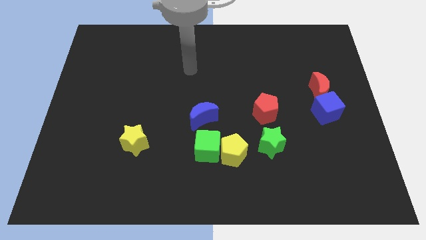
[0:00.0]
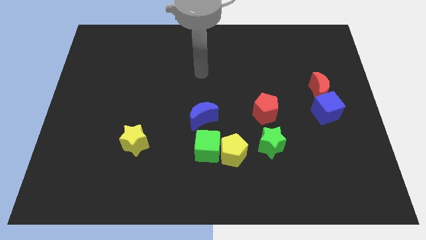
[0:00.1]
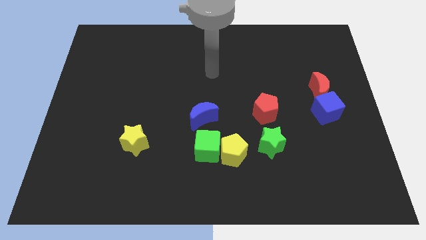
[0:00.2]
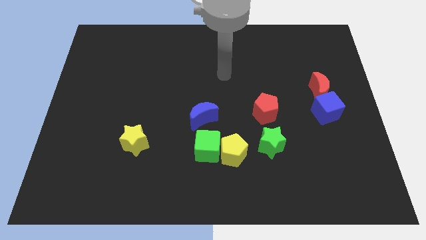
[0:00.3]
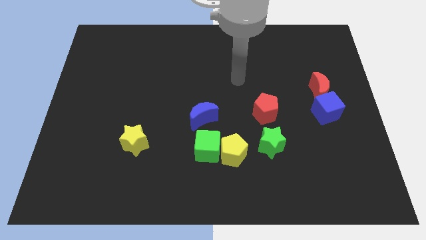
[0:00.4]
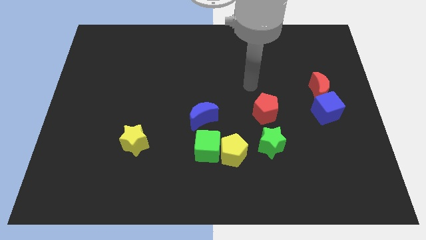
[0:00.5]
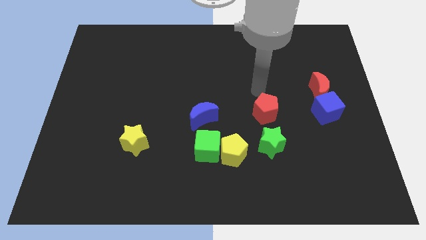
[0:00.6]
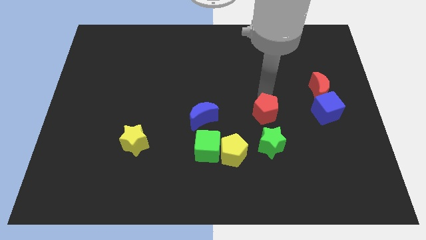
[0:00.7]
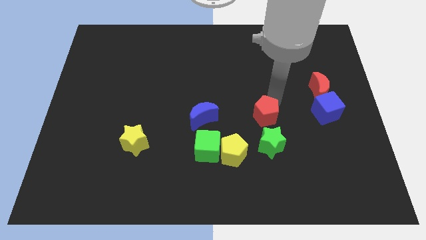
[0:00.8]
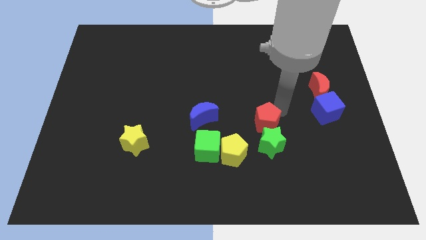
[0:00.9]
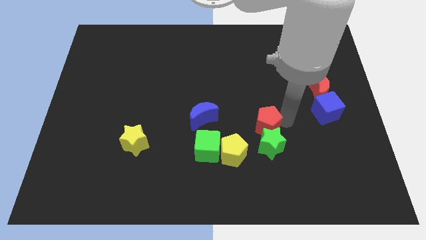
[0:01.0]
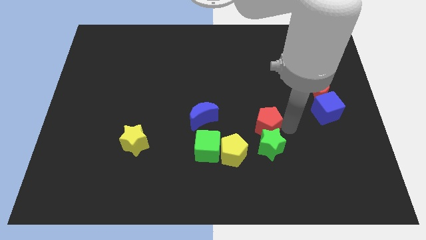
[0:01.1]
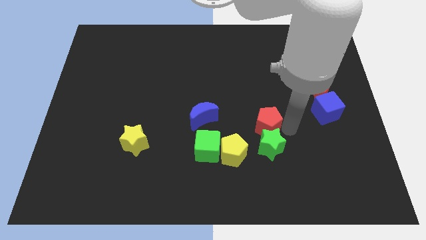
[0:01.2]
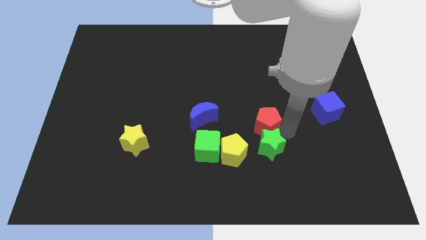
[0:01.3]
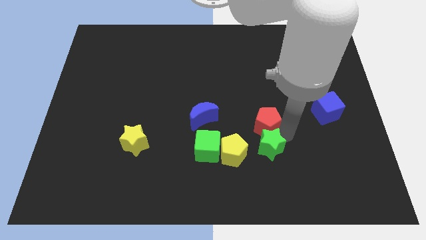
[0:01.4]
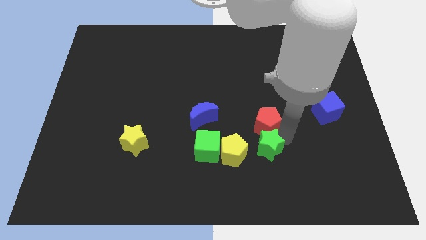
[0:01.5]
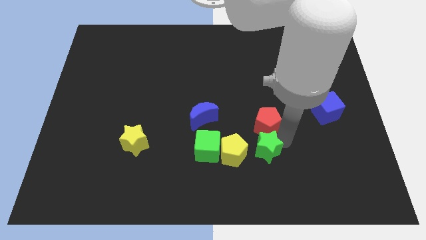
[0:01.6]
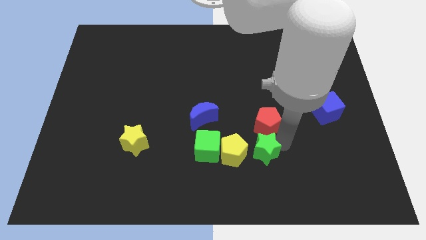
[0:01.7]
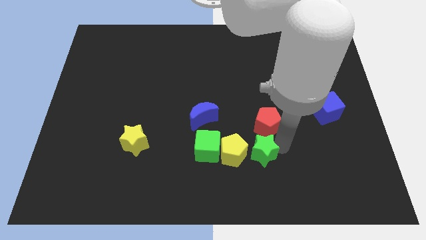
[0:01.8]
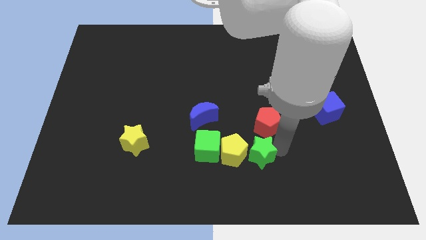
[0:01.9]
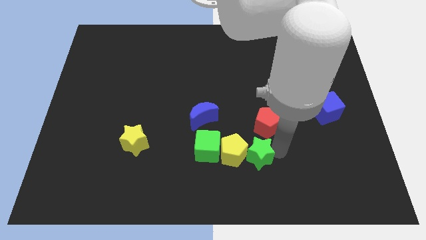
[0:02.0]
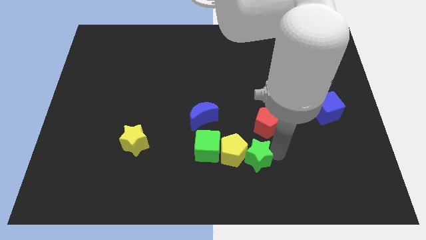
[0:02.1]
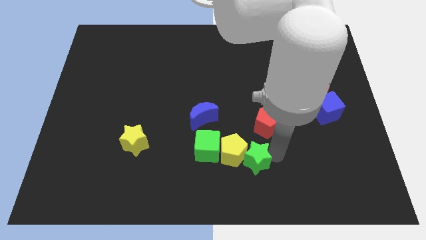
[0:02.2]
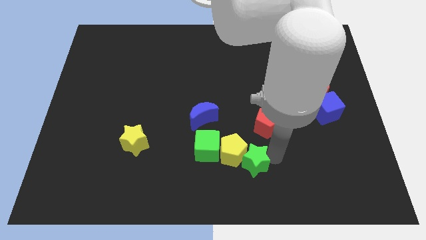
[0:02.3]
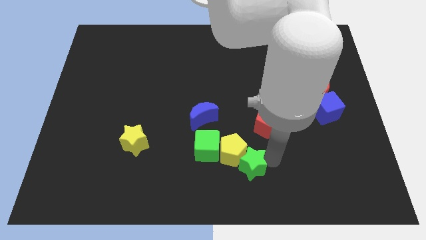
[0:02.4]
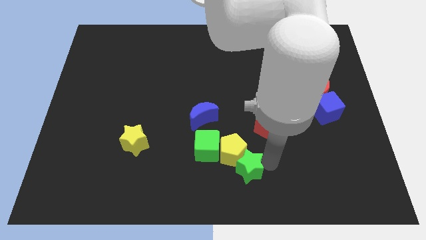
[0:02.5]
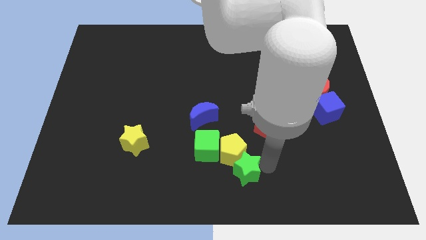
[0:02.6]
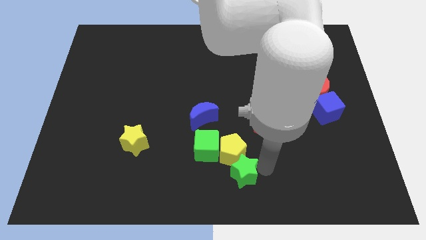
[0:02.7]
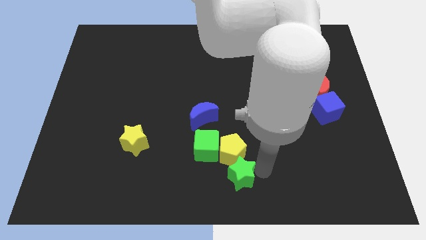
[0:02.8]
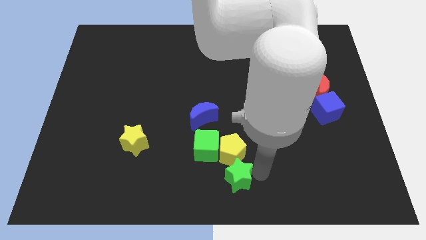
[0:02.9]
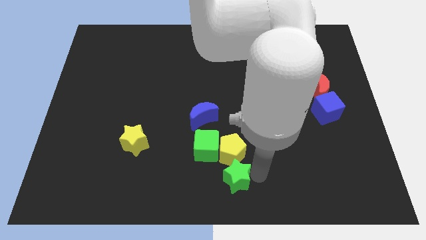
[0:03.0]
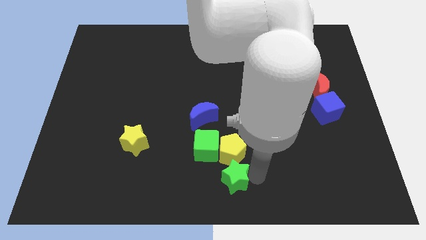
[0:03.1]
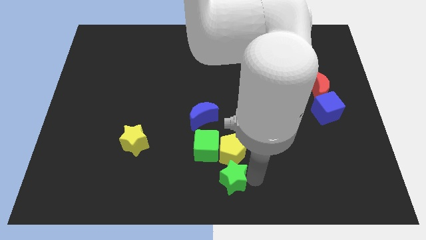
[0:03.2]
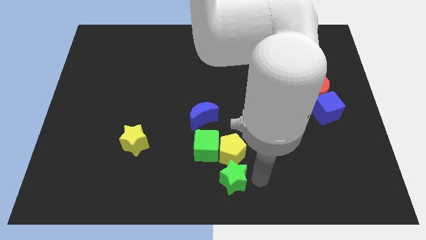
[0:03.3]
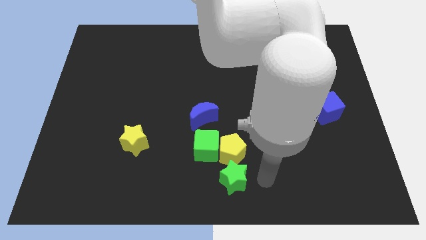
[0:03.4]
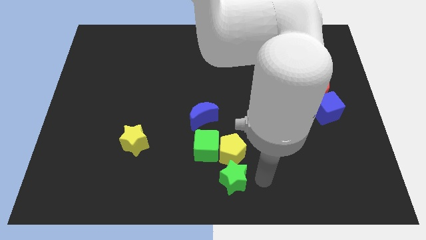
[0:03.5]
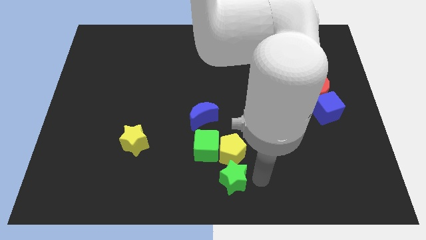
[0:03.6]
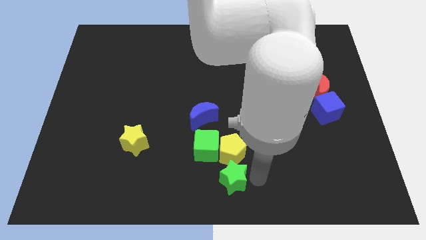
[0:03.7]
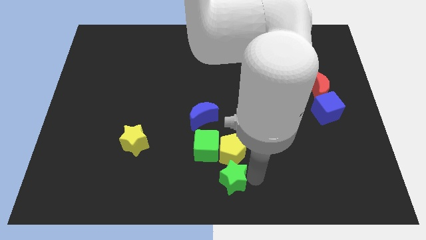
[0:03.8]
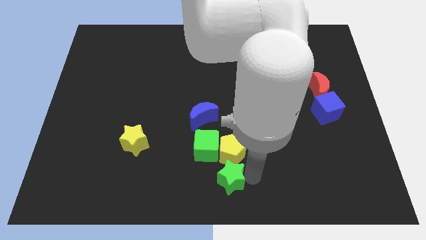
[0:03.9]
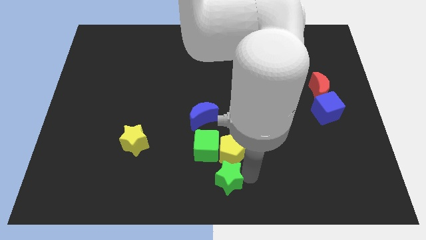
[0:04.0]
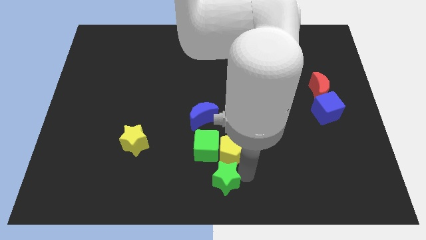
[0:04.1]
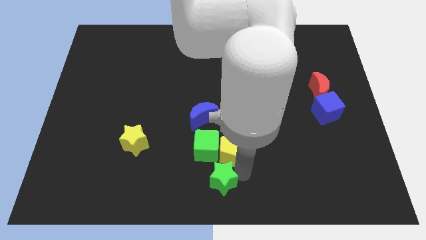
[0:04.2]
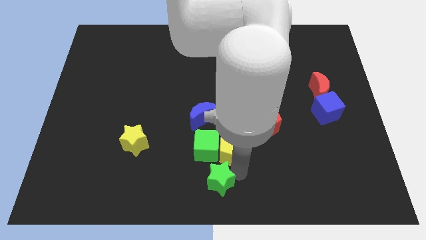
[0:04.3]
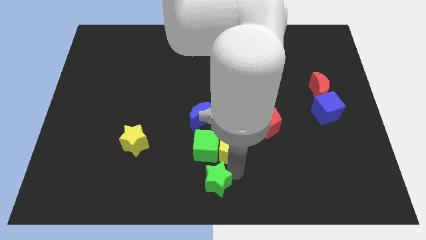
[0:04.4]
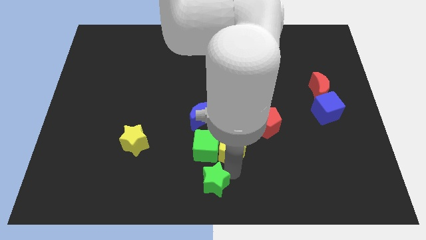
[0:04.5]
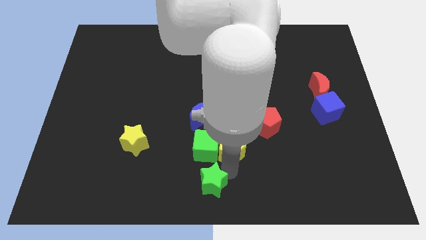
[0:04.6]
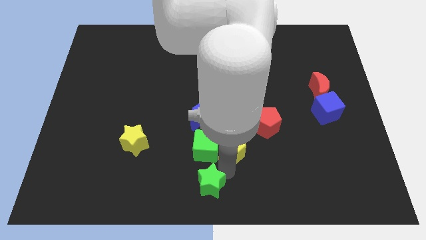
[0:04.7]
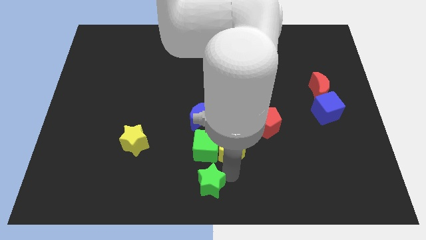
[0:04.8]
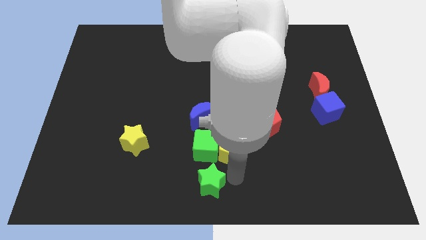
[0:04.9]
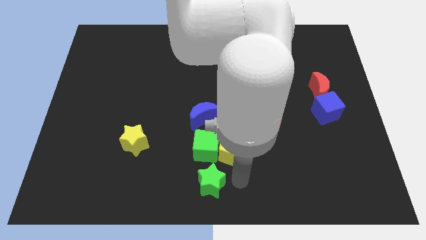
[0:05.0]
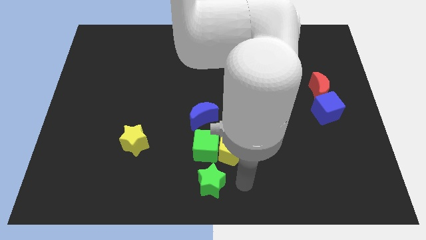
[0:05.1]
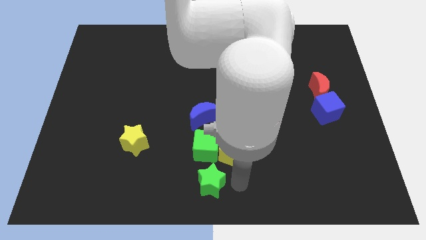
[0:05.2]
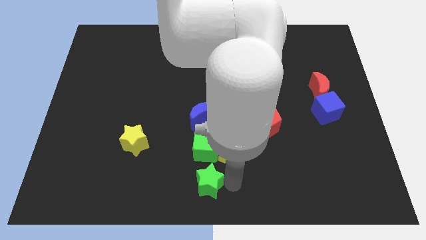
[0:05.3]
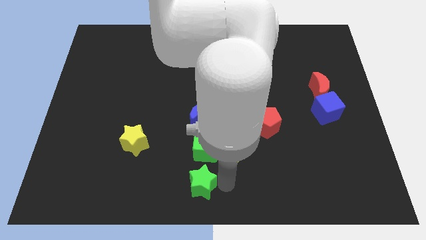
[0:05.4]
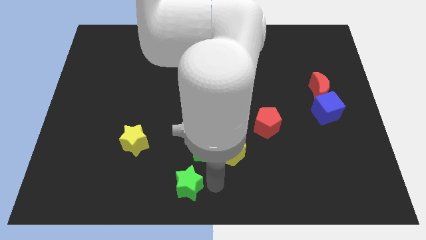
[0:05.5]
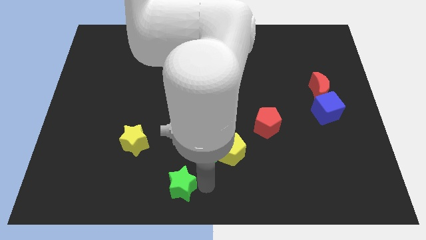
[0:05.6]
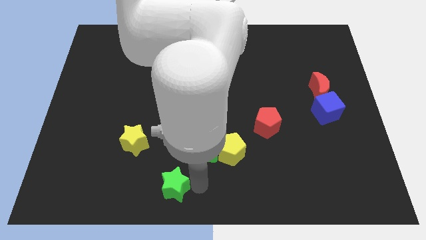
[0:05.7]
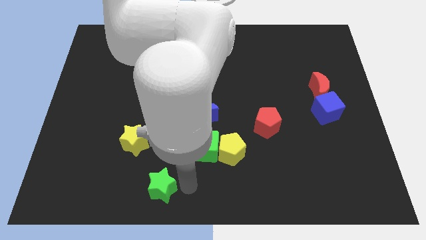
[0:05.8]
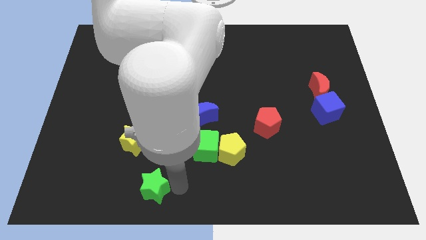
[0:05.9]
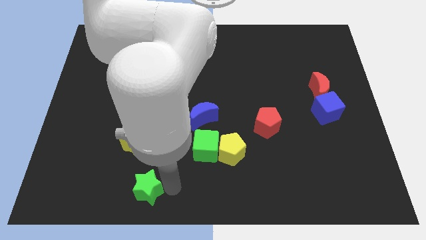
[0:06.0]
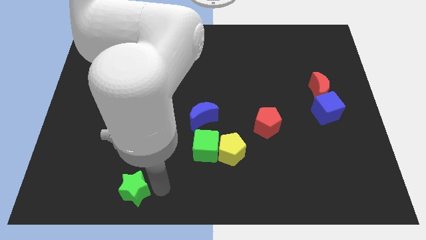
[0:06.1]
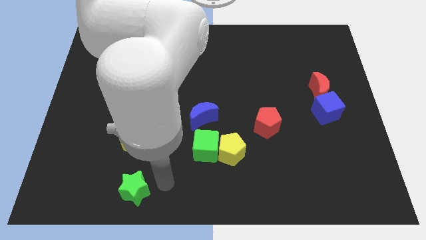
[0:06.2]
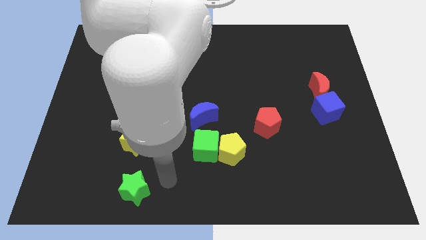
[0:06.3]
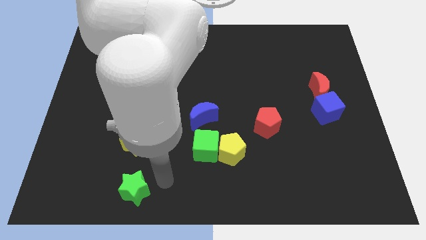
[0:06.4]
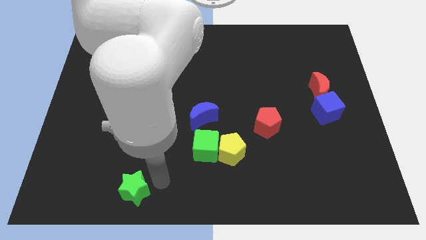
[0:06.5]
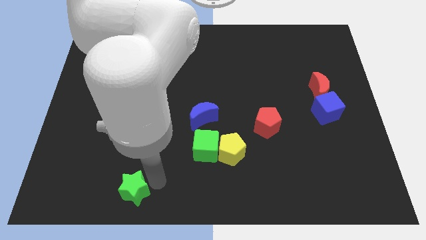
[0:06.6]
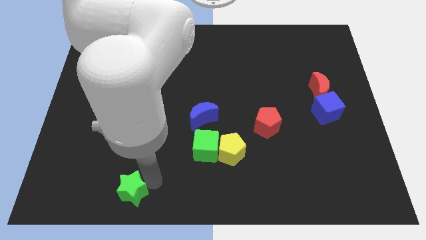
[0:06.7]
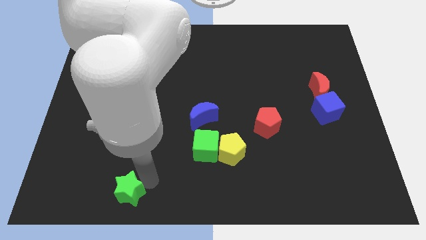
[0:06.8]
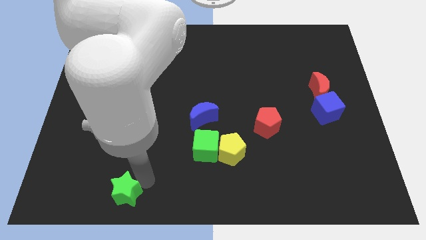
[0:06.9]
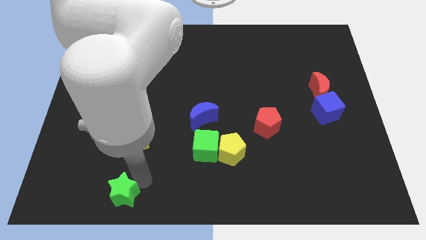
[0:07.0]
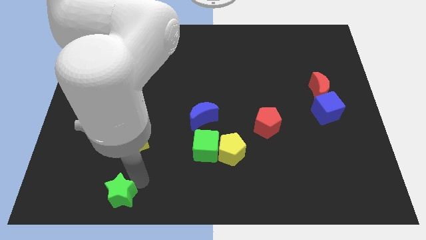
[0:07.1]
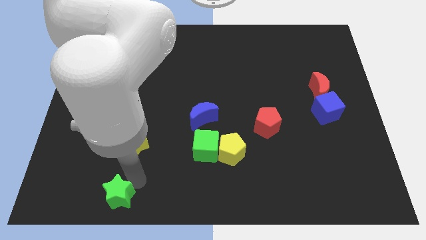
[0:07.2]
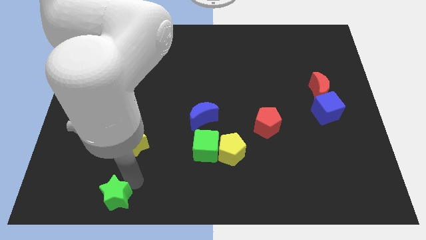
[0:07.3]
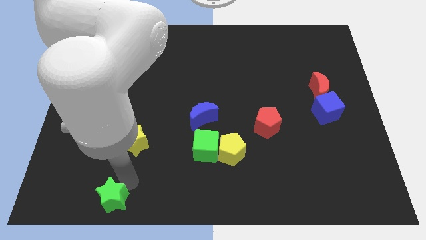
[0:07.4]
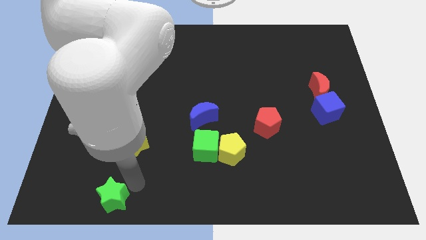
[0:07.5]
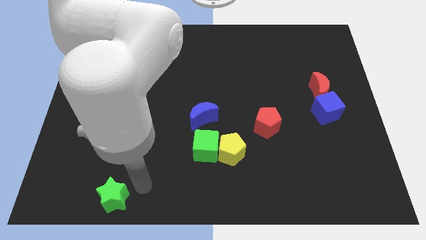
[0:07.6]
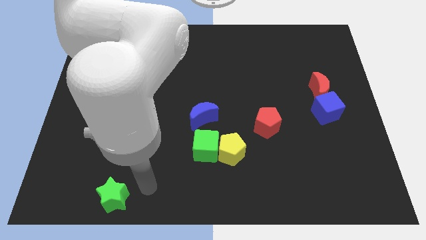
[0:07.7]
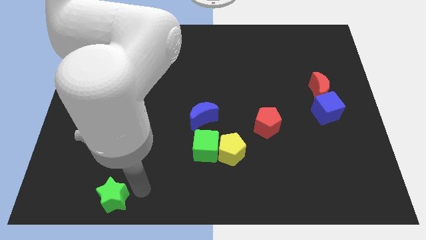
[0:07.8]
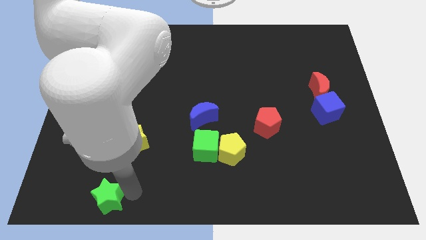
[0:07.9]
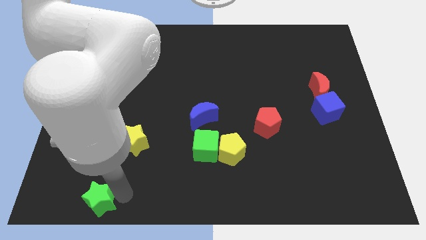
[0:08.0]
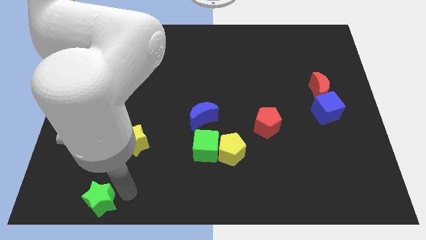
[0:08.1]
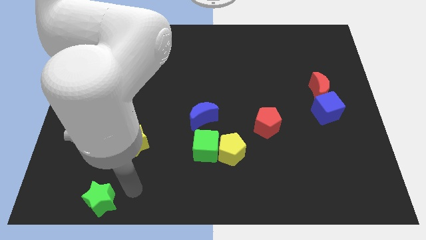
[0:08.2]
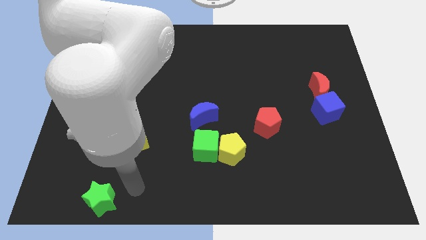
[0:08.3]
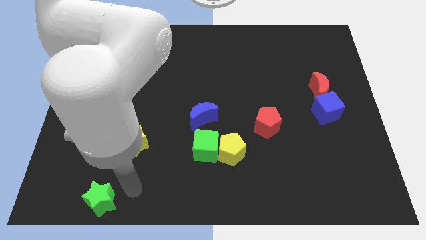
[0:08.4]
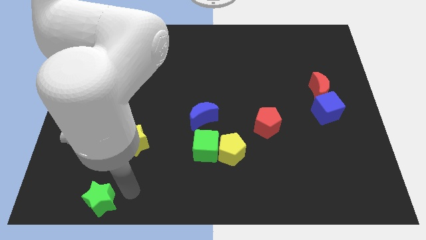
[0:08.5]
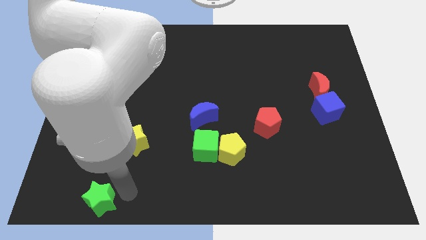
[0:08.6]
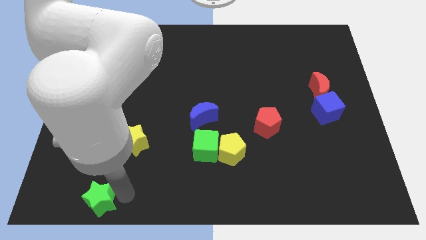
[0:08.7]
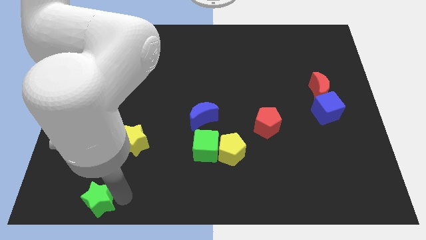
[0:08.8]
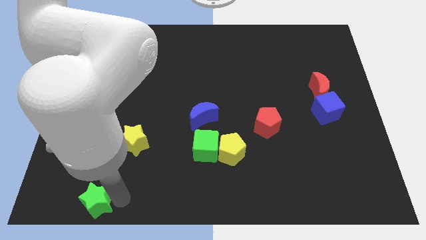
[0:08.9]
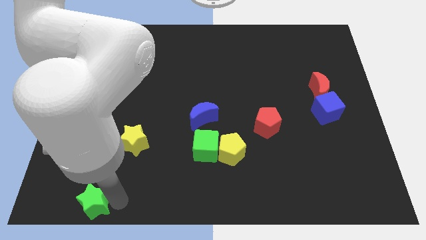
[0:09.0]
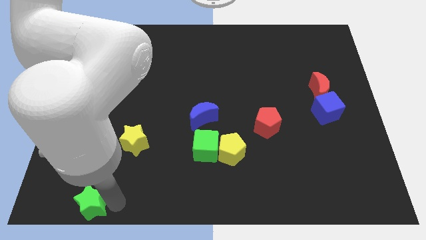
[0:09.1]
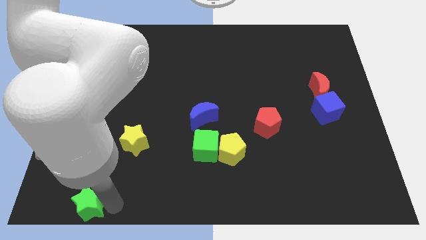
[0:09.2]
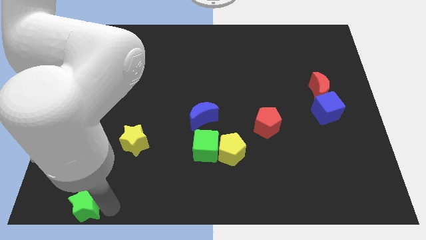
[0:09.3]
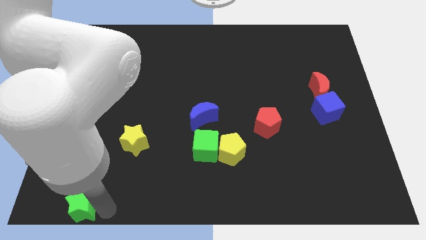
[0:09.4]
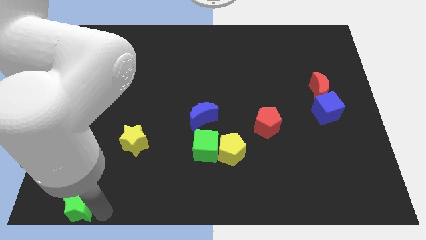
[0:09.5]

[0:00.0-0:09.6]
push the green star to the lower left corner
